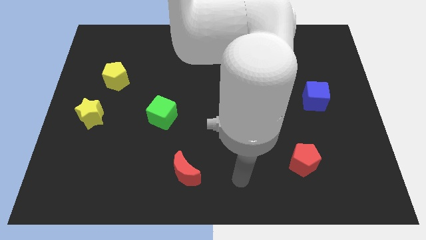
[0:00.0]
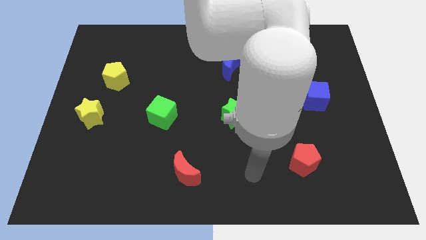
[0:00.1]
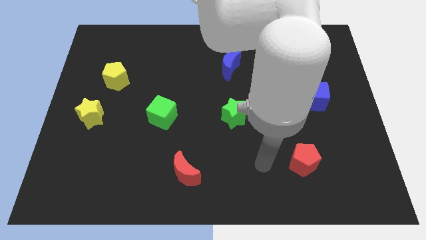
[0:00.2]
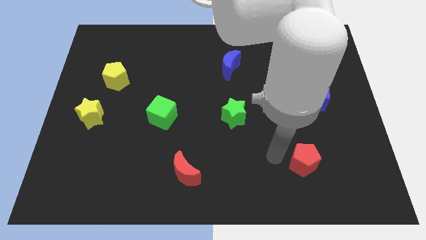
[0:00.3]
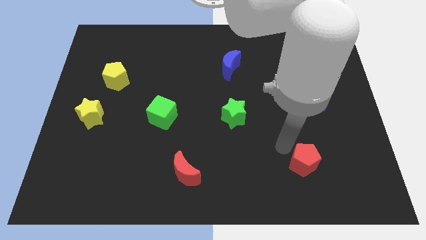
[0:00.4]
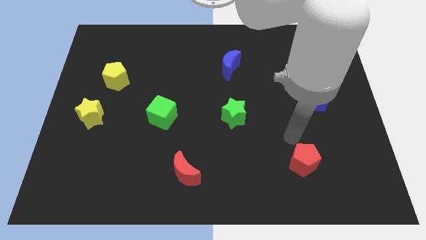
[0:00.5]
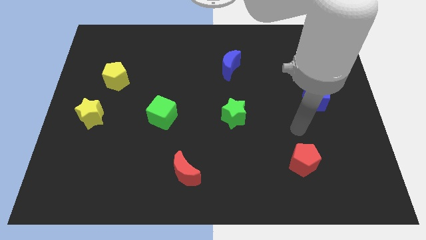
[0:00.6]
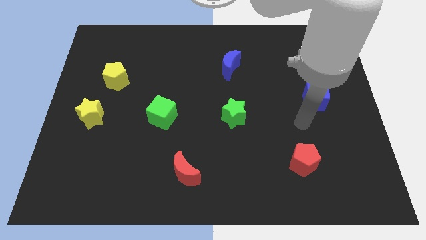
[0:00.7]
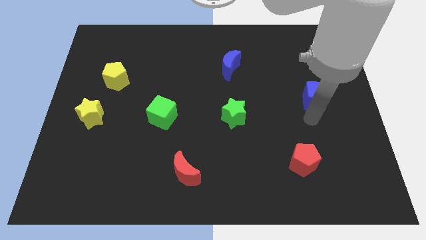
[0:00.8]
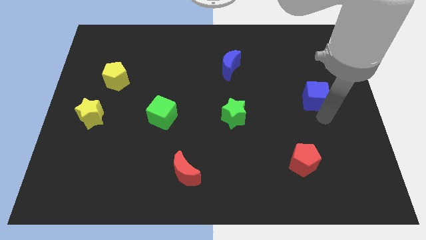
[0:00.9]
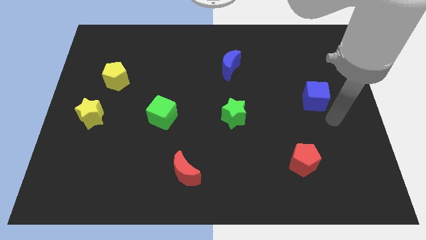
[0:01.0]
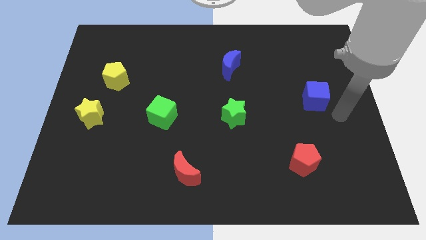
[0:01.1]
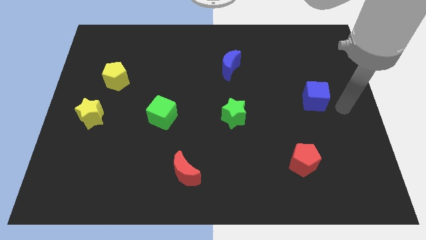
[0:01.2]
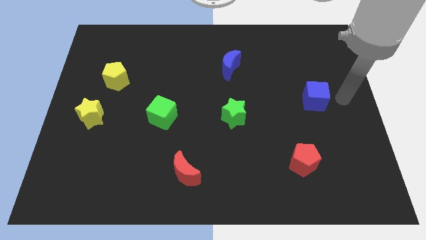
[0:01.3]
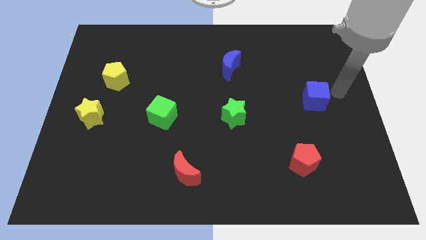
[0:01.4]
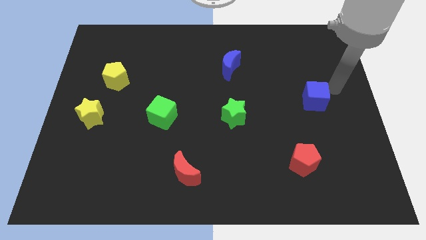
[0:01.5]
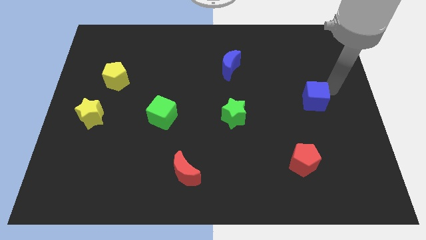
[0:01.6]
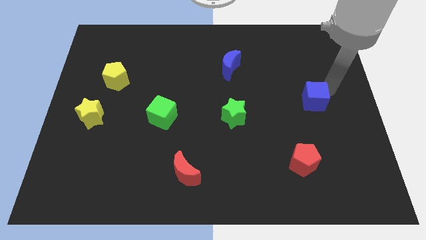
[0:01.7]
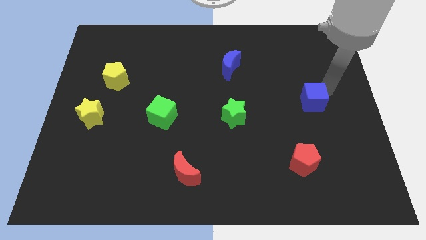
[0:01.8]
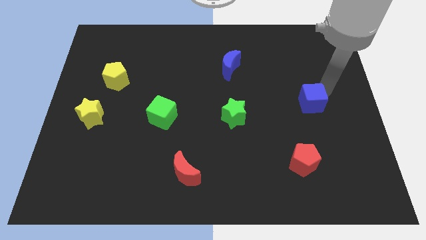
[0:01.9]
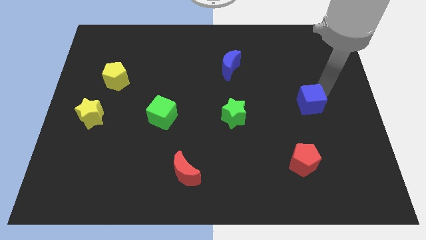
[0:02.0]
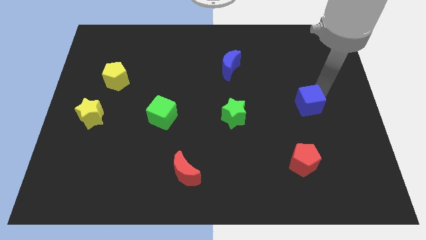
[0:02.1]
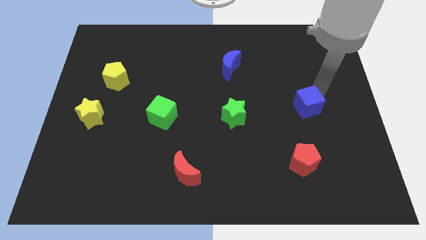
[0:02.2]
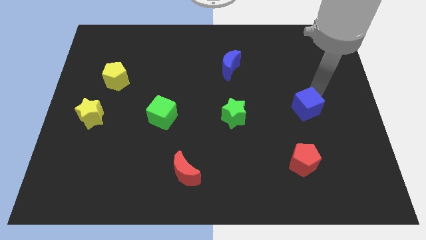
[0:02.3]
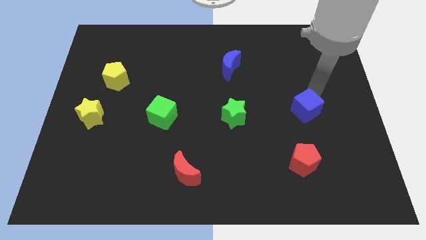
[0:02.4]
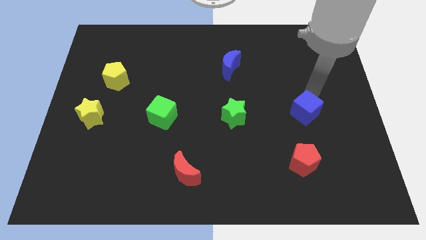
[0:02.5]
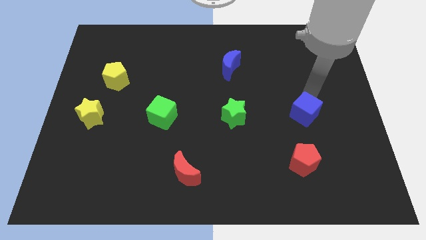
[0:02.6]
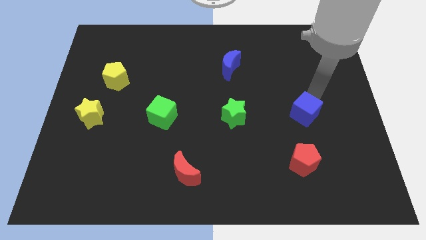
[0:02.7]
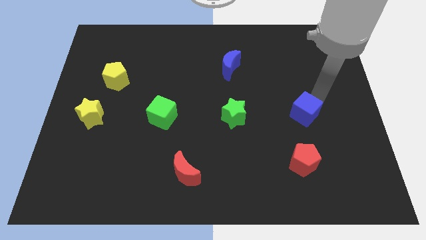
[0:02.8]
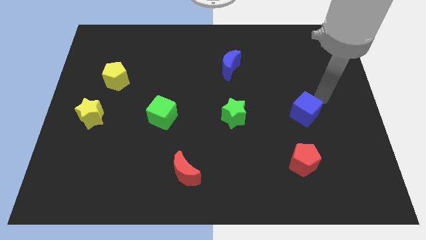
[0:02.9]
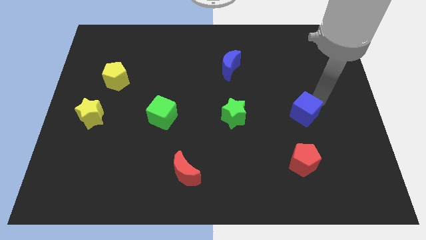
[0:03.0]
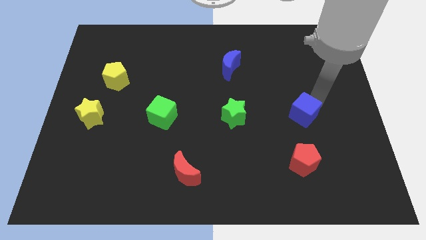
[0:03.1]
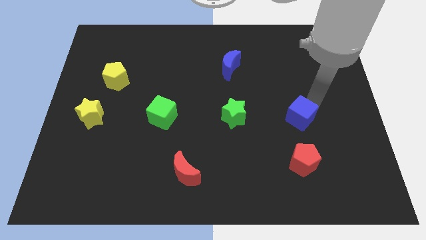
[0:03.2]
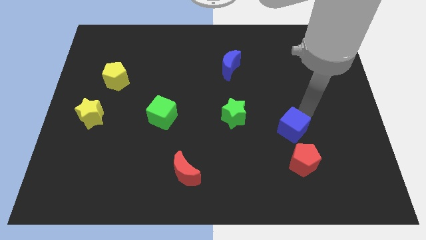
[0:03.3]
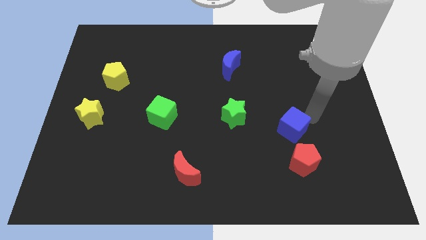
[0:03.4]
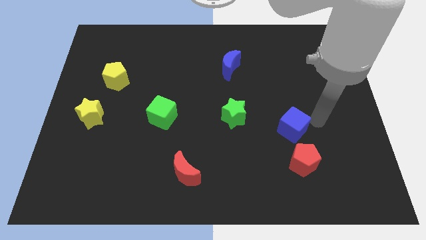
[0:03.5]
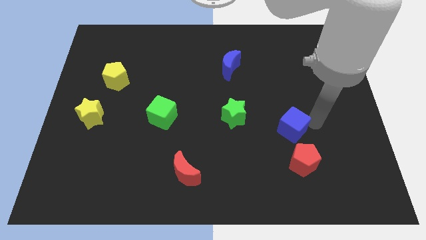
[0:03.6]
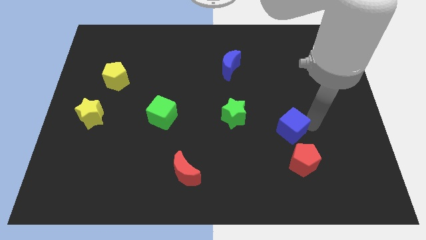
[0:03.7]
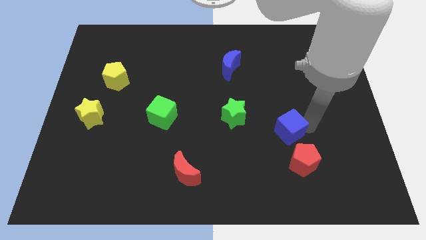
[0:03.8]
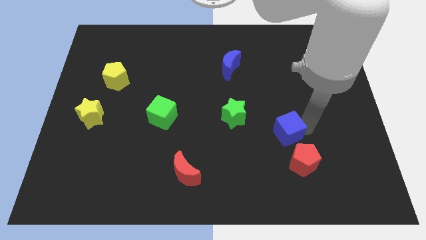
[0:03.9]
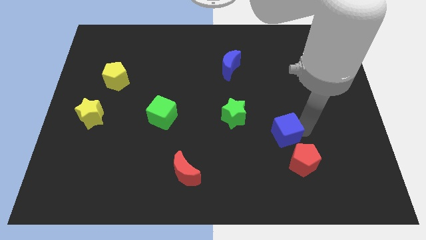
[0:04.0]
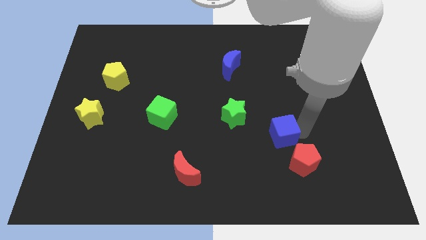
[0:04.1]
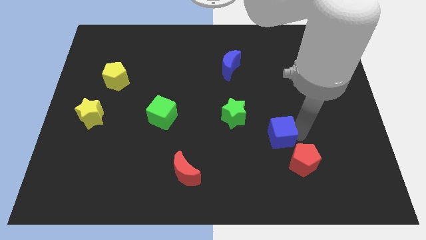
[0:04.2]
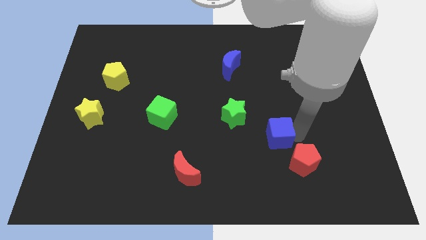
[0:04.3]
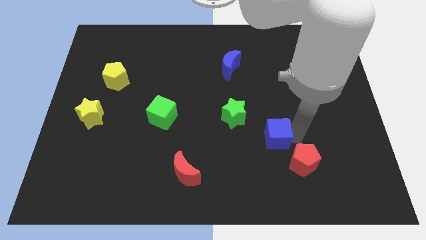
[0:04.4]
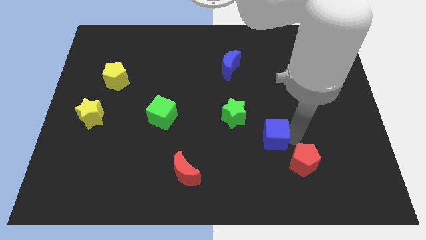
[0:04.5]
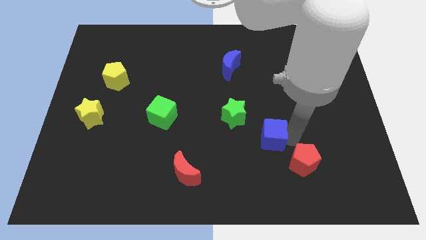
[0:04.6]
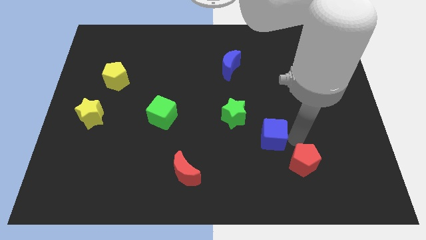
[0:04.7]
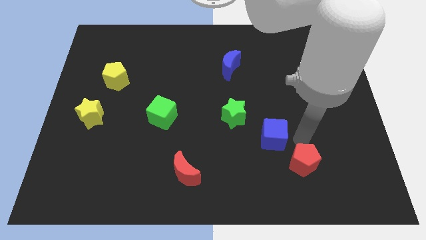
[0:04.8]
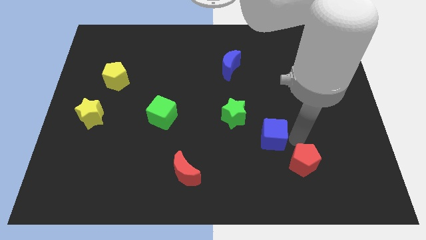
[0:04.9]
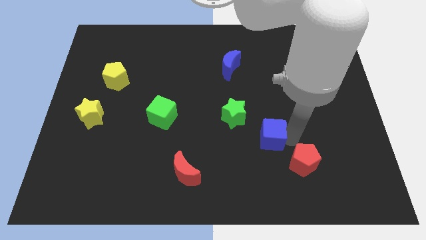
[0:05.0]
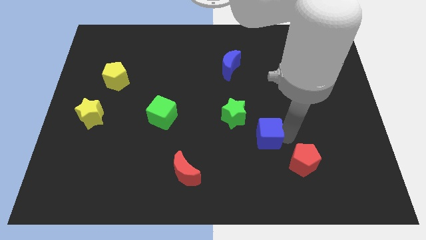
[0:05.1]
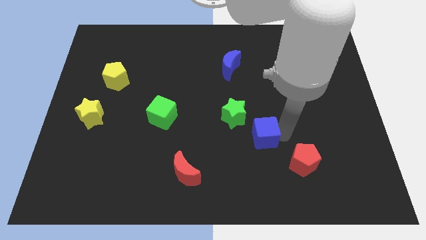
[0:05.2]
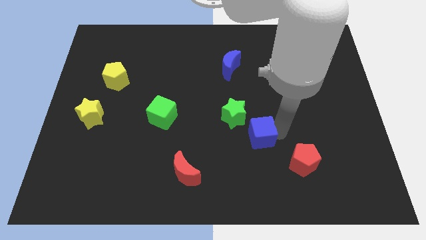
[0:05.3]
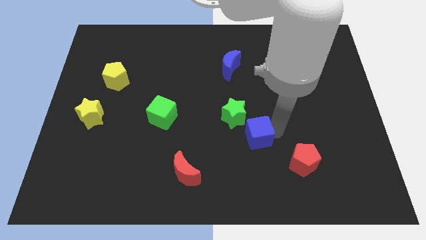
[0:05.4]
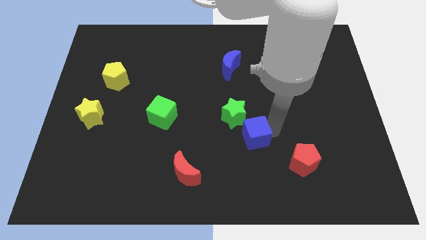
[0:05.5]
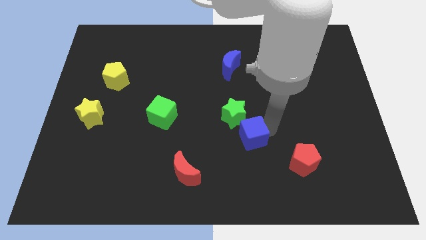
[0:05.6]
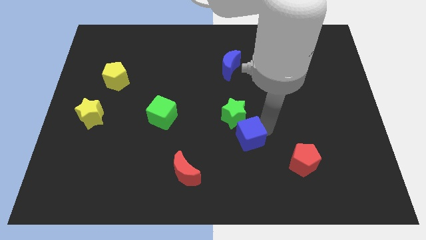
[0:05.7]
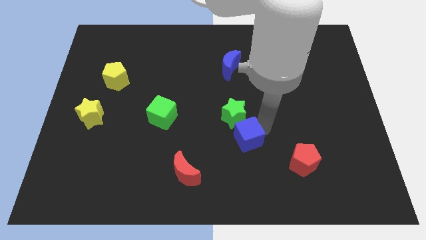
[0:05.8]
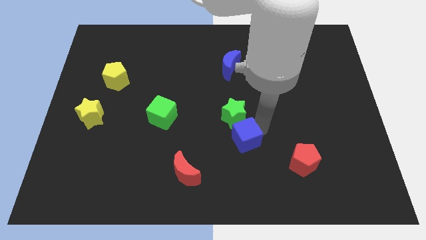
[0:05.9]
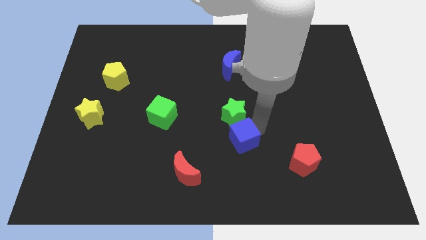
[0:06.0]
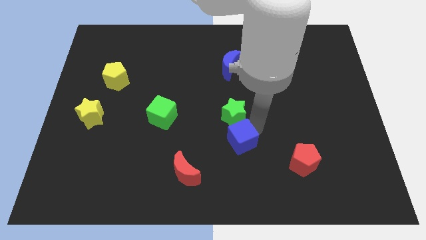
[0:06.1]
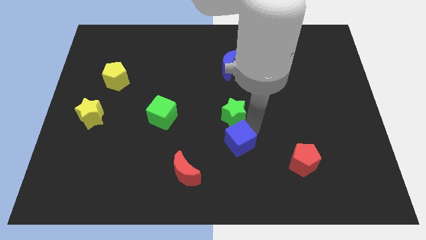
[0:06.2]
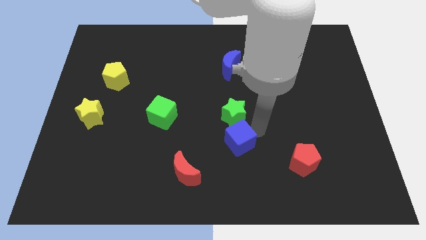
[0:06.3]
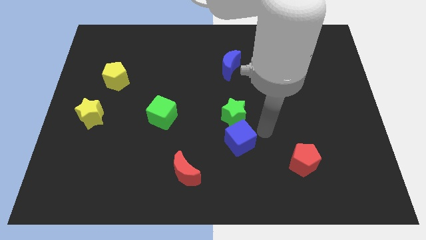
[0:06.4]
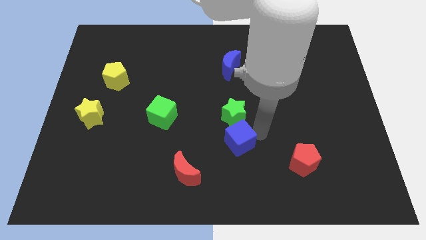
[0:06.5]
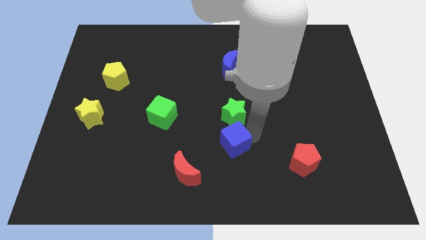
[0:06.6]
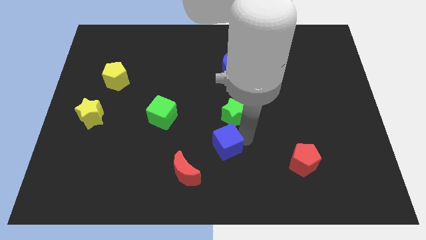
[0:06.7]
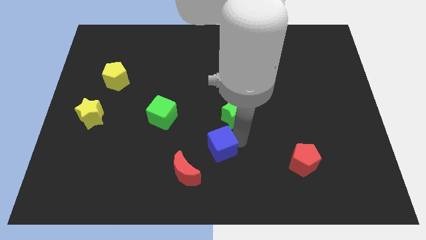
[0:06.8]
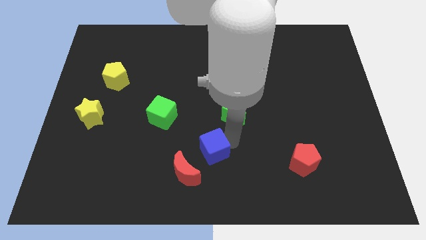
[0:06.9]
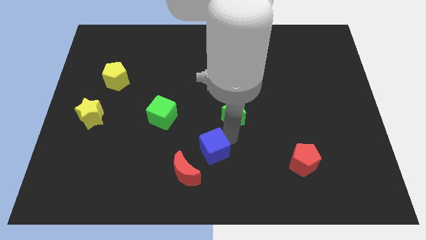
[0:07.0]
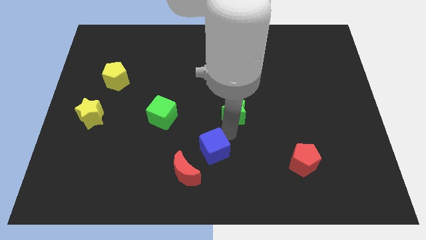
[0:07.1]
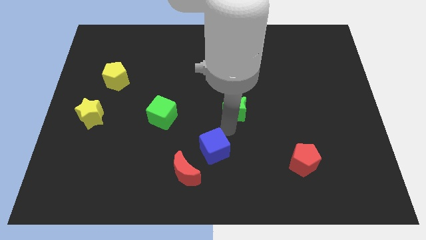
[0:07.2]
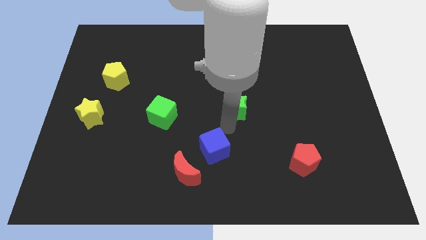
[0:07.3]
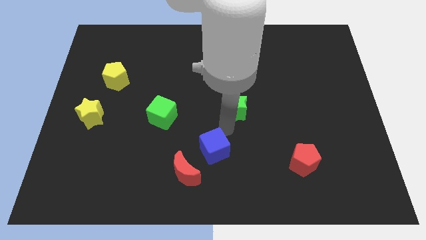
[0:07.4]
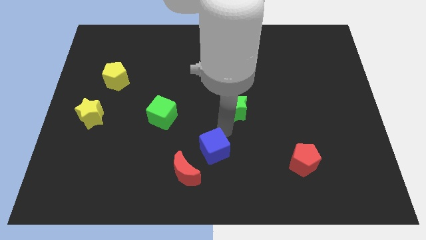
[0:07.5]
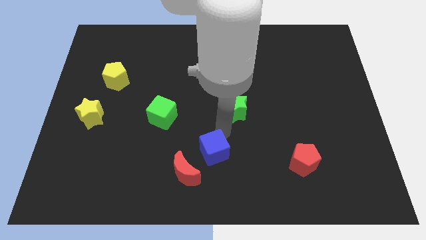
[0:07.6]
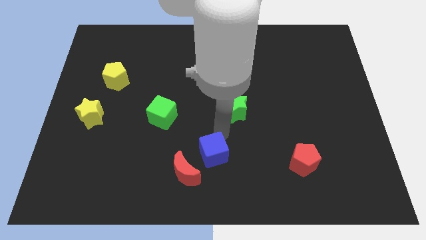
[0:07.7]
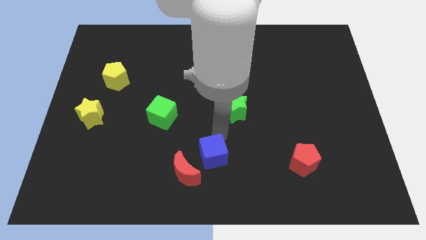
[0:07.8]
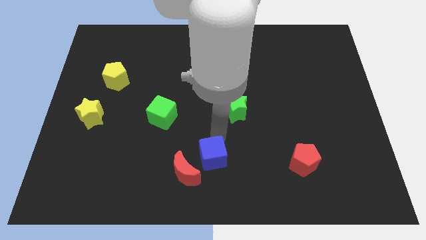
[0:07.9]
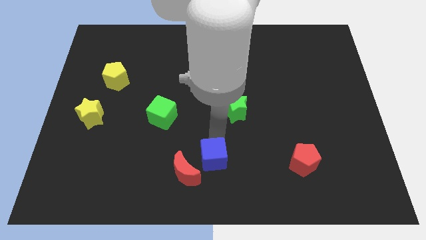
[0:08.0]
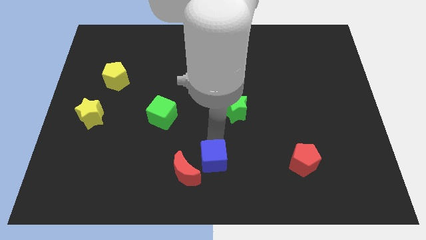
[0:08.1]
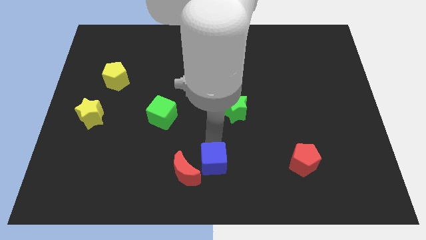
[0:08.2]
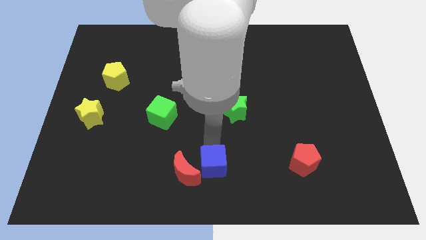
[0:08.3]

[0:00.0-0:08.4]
push the blue cube next to the red moon
